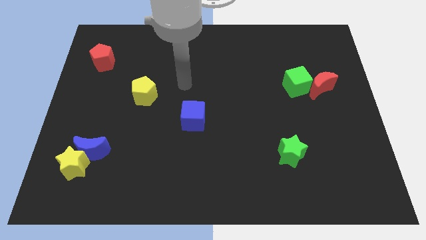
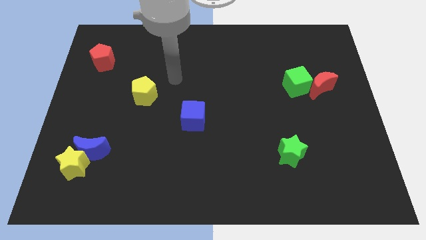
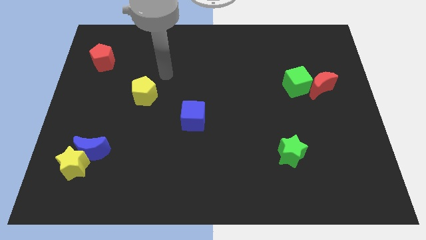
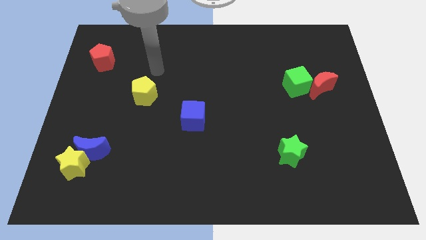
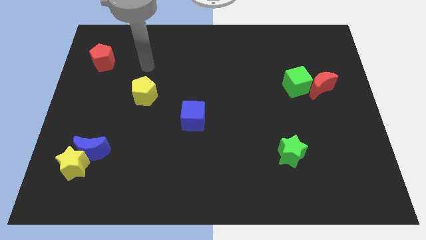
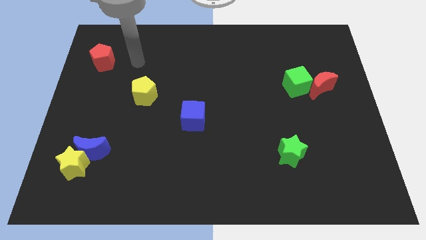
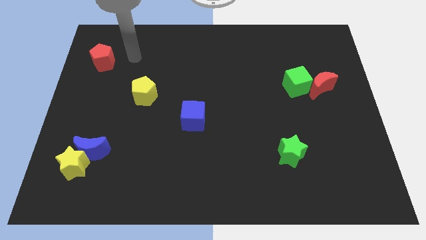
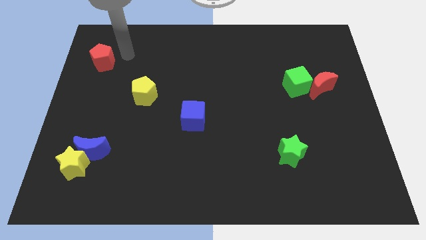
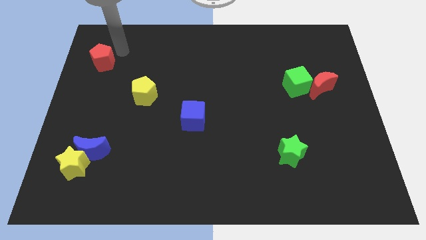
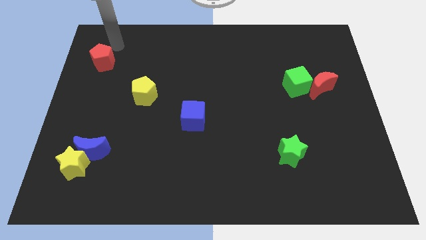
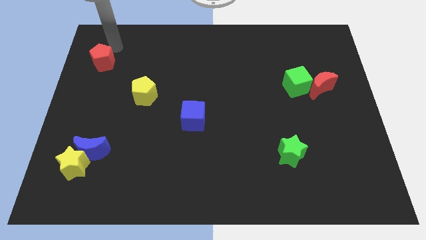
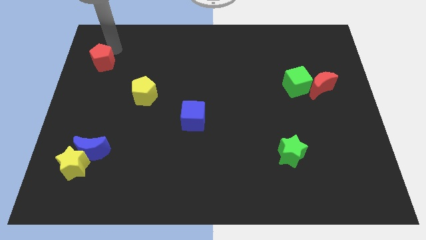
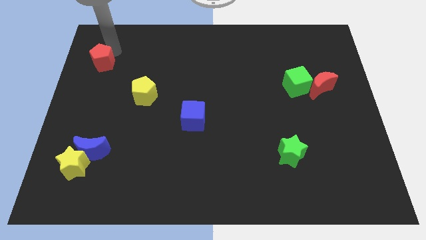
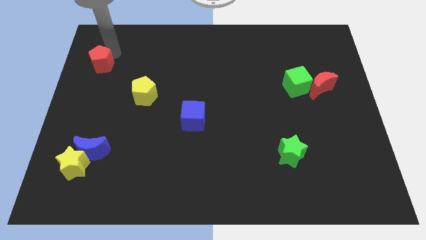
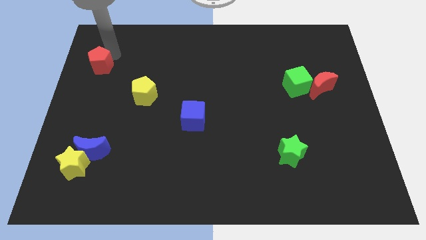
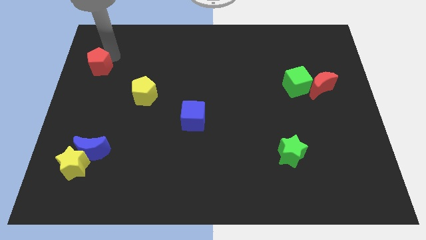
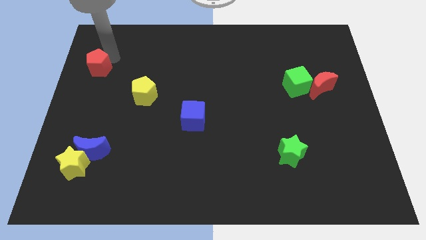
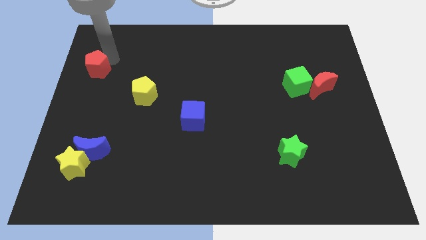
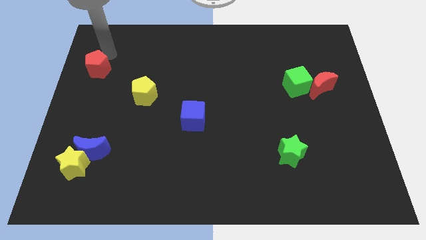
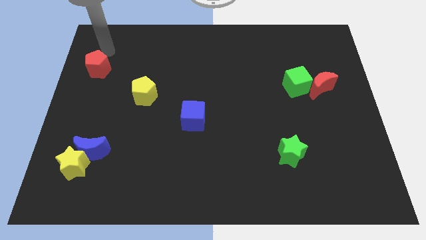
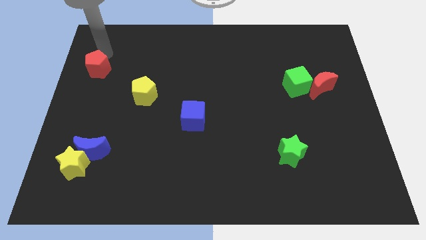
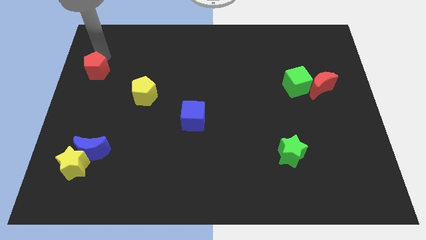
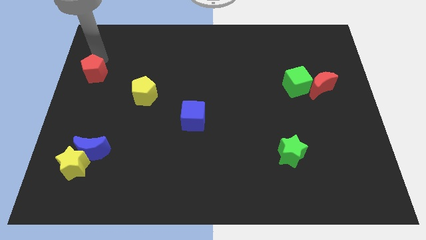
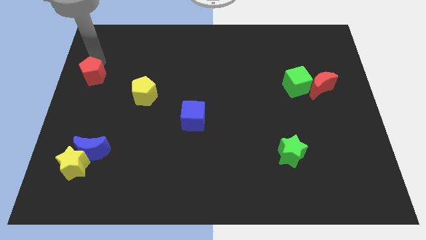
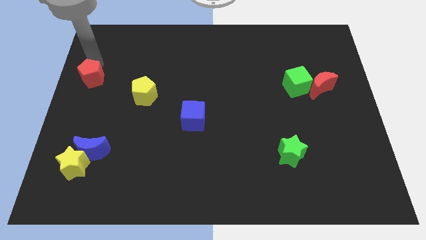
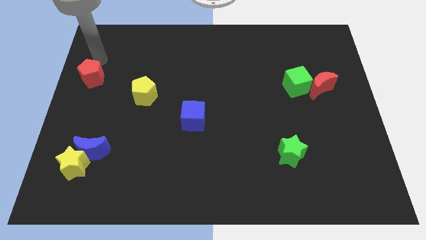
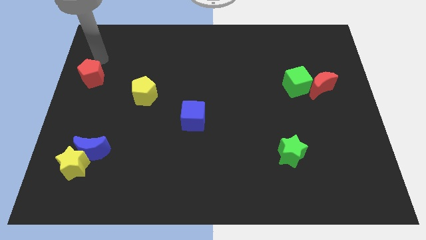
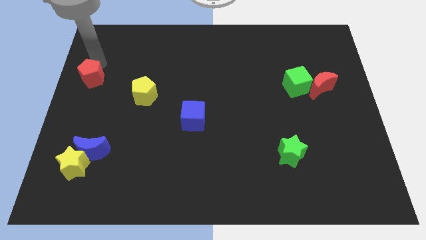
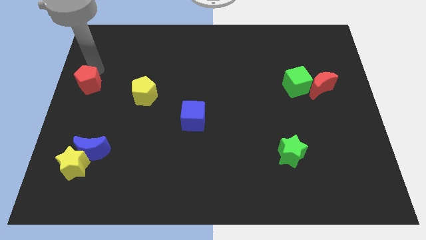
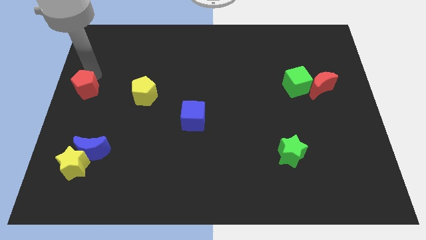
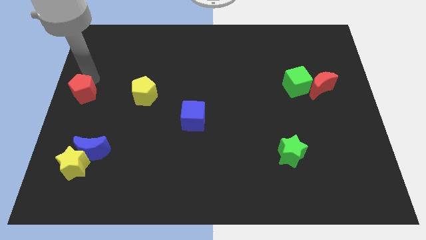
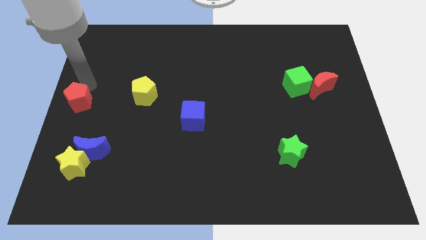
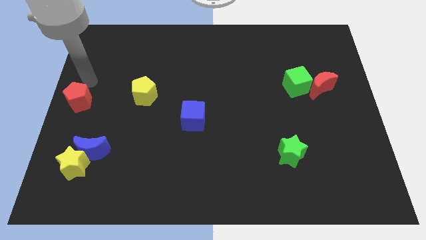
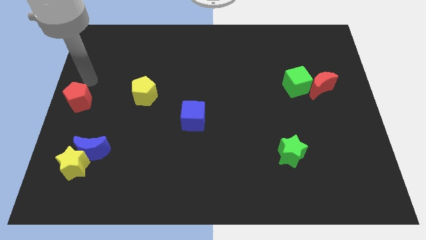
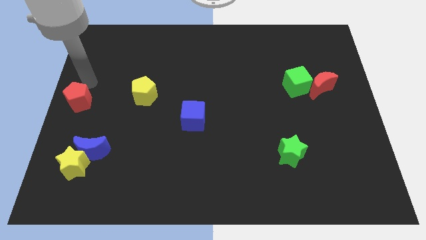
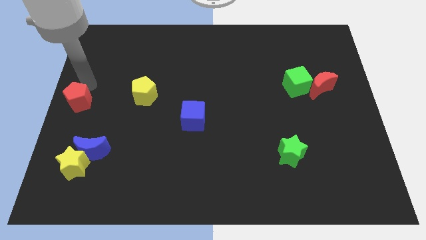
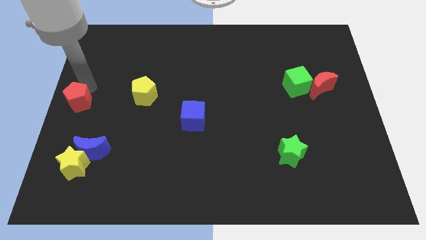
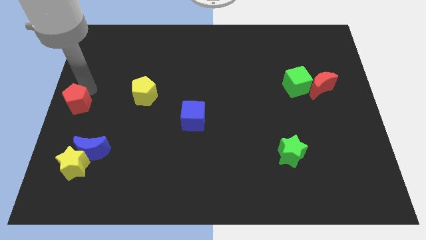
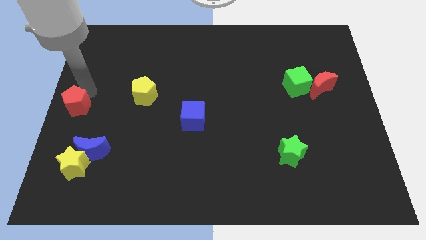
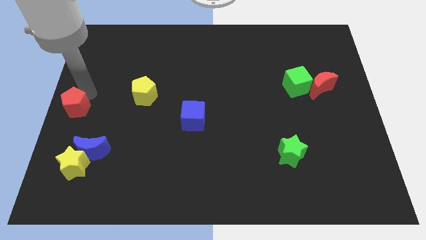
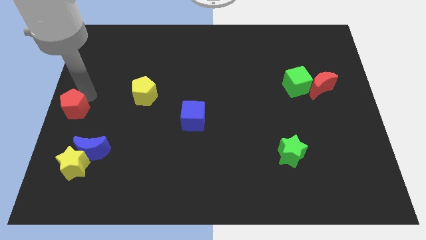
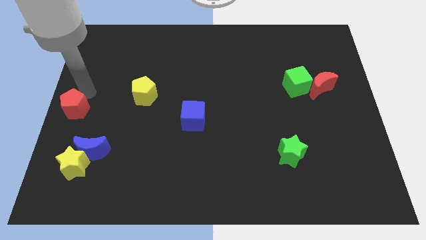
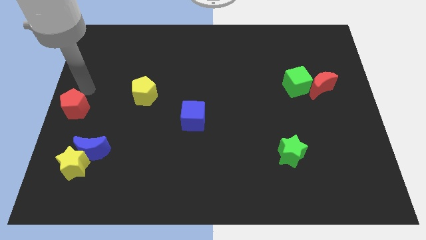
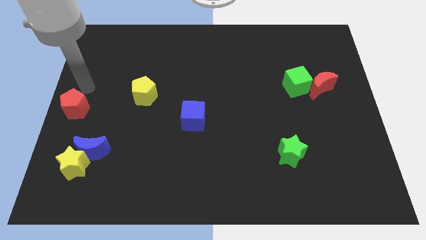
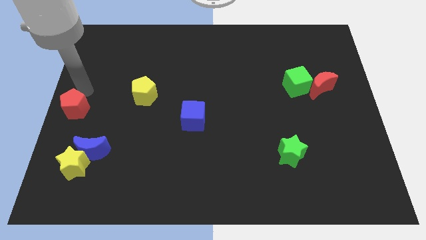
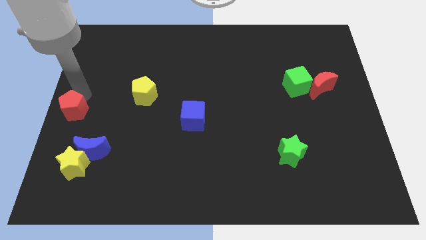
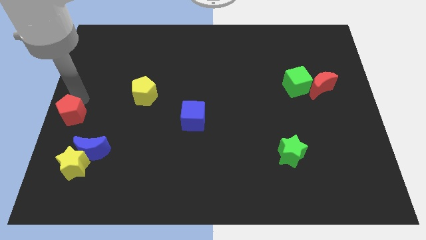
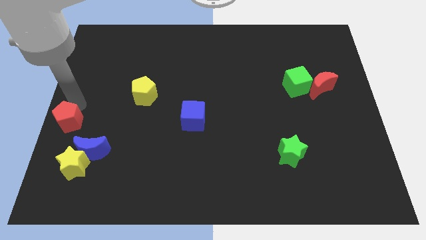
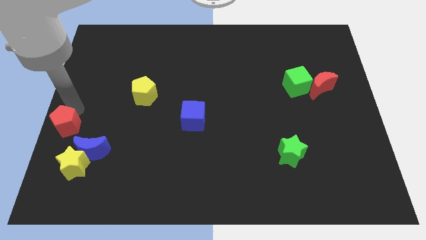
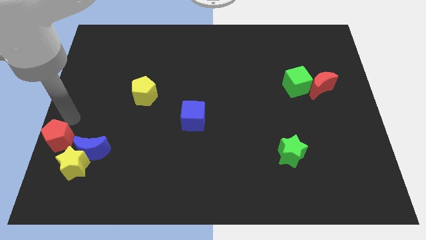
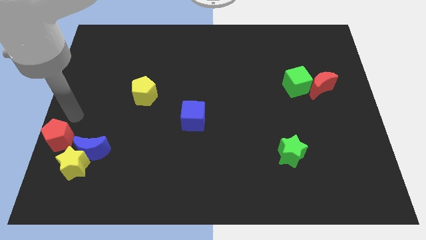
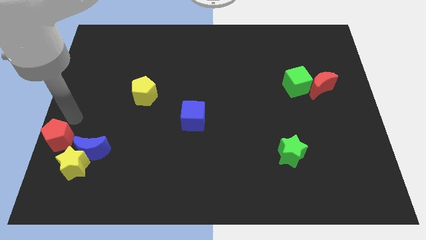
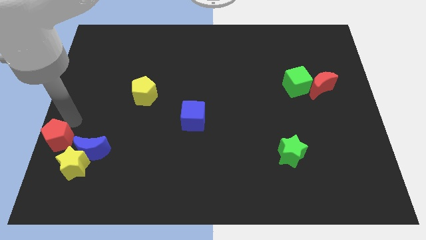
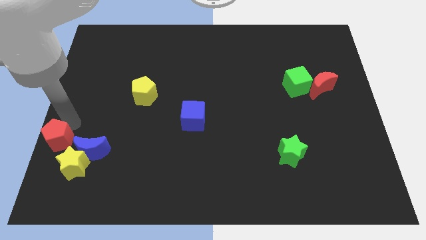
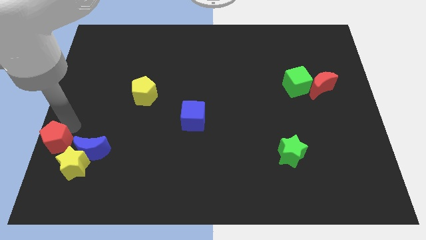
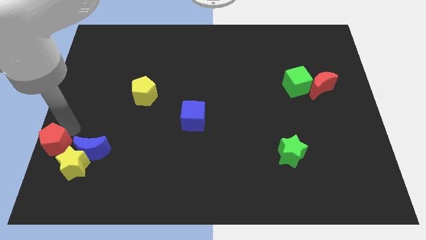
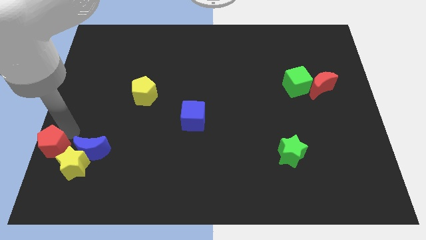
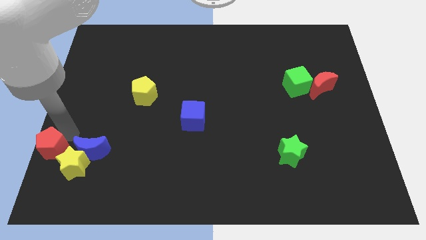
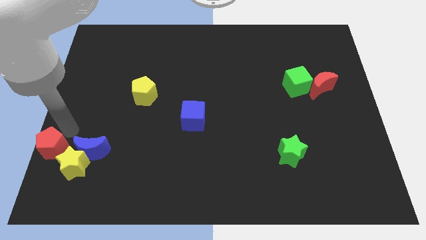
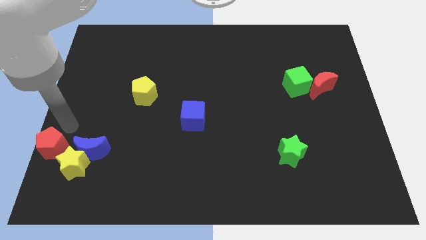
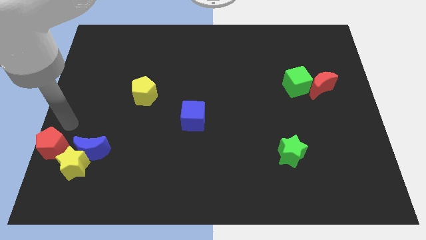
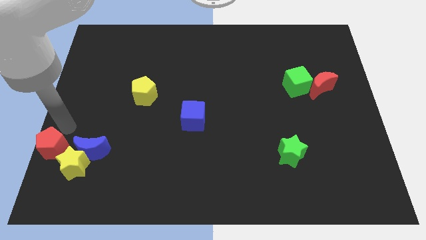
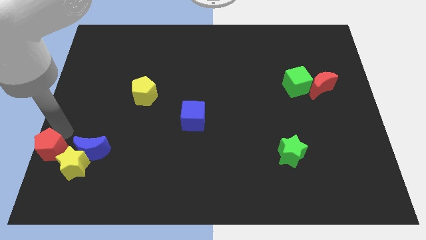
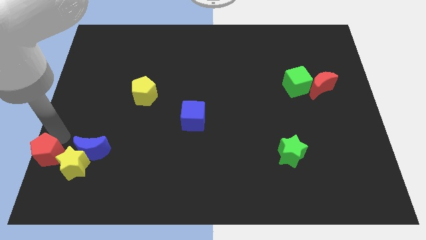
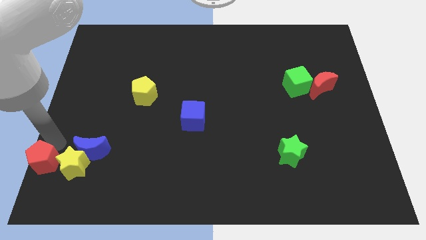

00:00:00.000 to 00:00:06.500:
move the red pentagon to the bottom left
